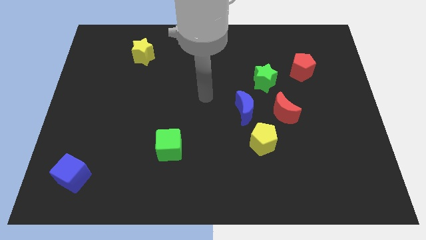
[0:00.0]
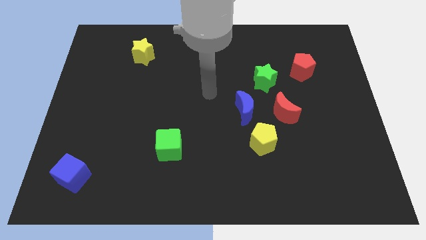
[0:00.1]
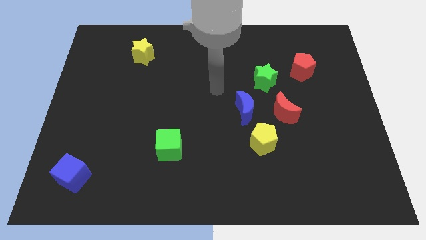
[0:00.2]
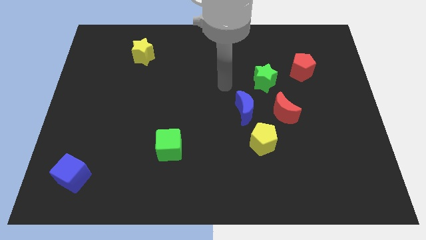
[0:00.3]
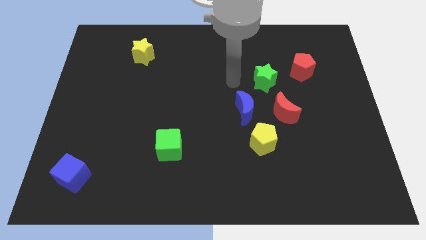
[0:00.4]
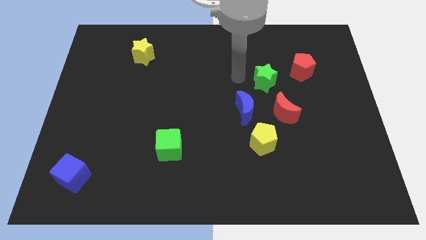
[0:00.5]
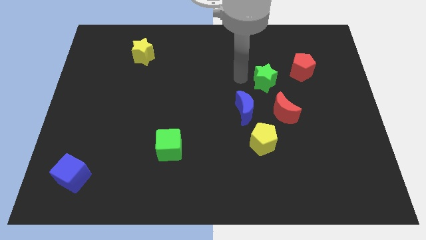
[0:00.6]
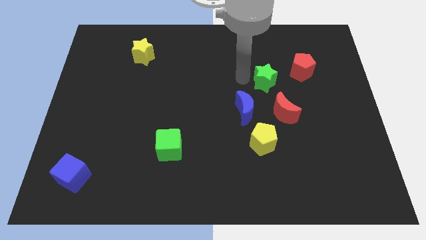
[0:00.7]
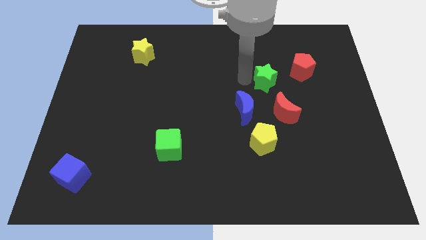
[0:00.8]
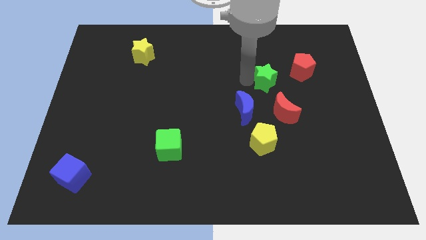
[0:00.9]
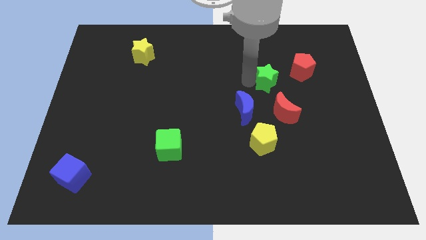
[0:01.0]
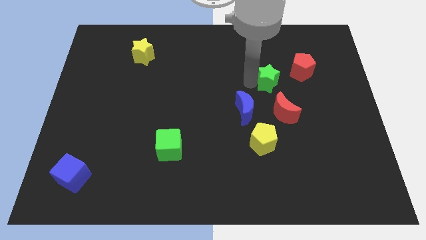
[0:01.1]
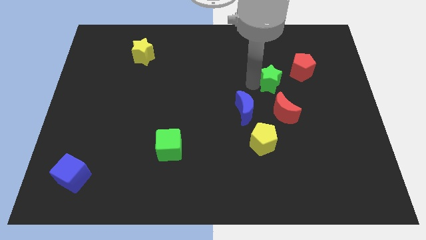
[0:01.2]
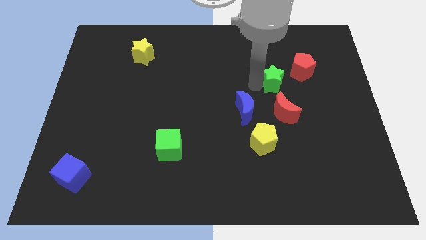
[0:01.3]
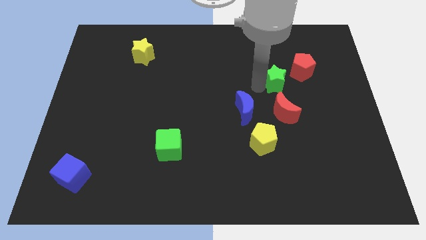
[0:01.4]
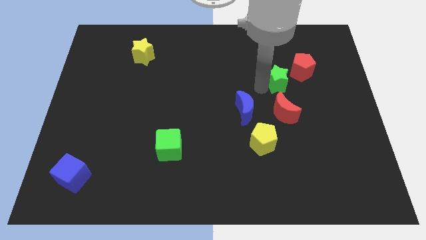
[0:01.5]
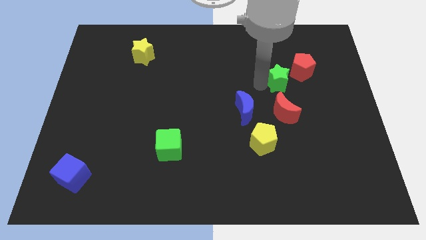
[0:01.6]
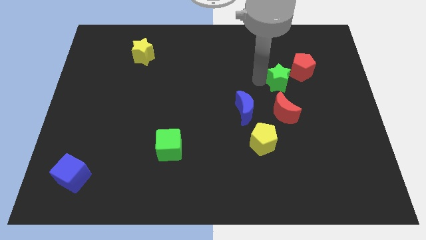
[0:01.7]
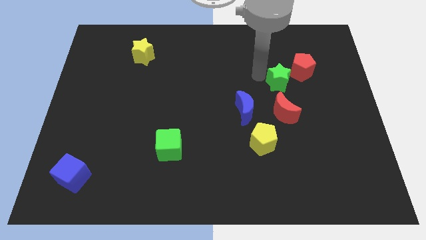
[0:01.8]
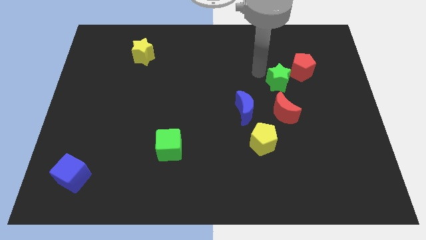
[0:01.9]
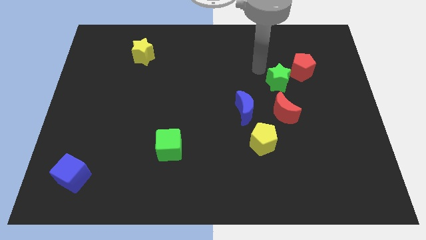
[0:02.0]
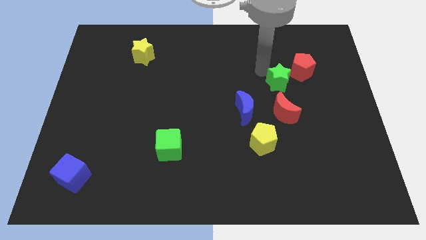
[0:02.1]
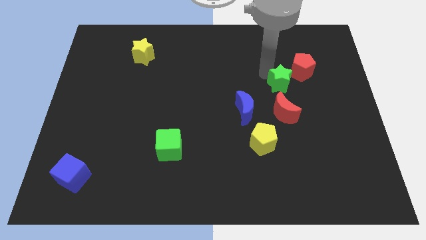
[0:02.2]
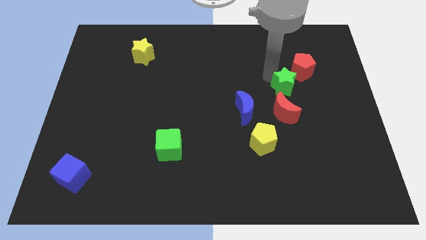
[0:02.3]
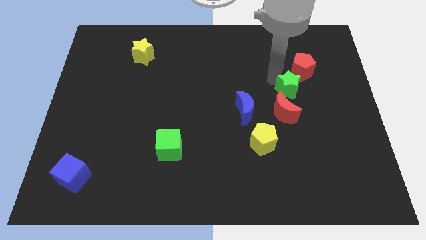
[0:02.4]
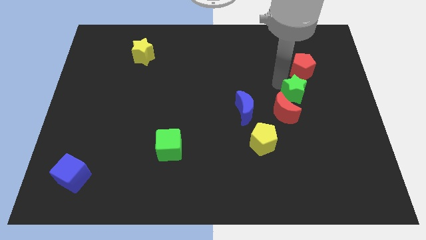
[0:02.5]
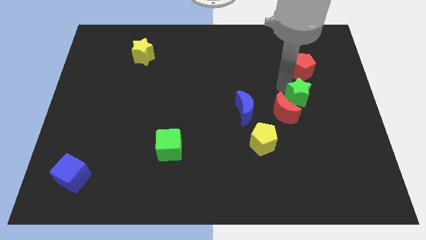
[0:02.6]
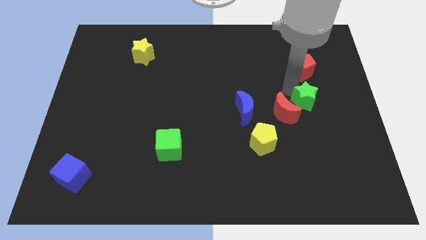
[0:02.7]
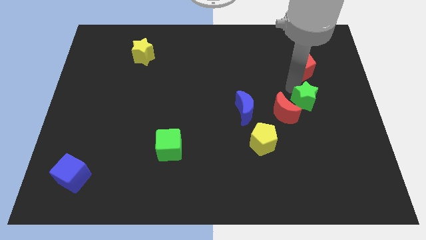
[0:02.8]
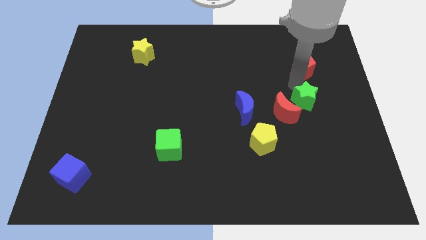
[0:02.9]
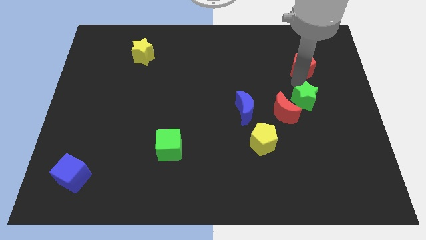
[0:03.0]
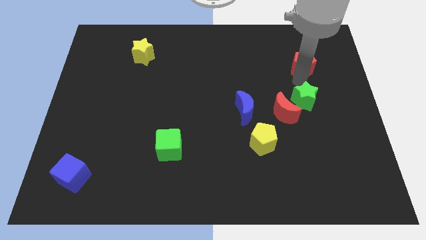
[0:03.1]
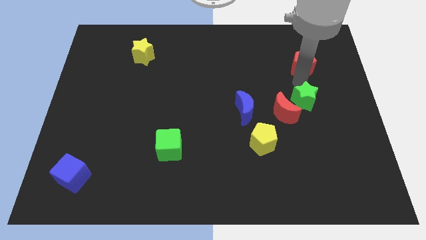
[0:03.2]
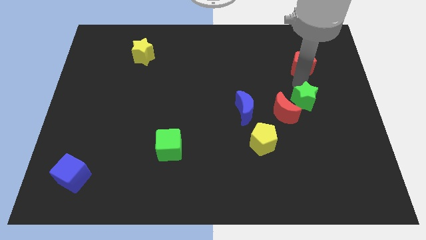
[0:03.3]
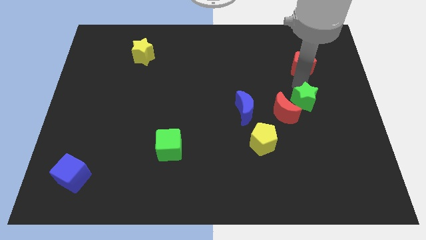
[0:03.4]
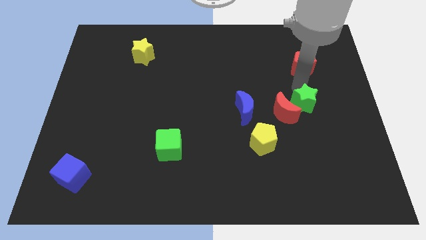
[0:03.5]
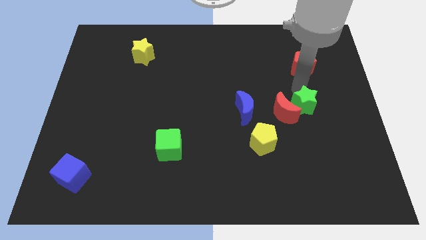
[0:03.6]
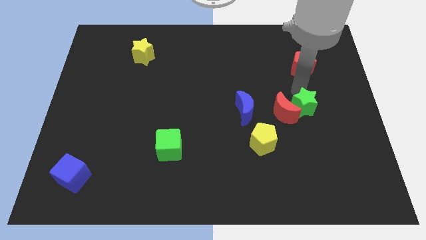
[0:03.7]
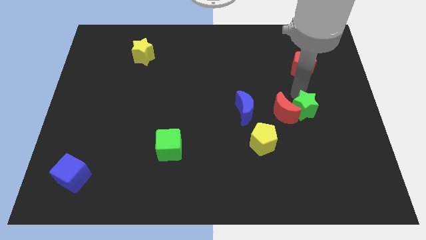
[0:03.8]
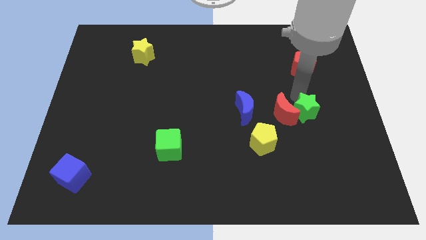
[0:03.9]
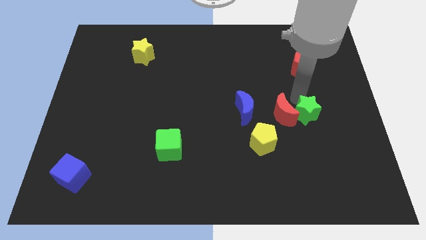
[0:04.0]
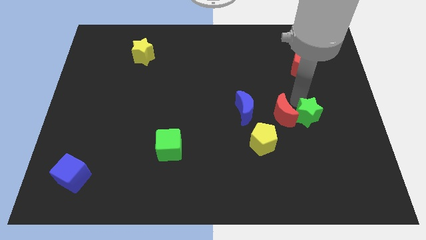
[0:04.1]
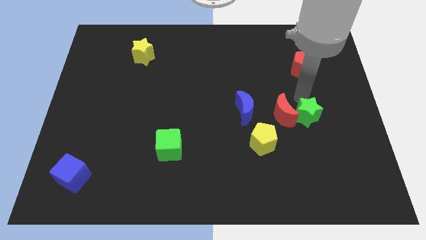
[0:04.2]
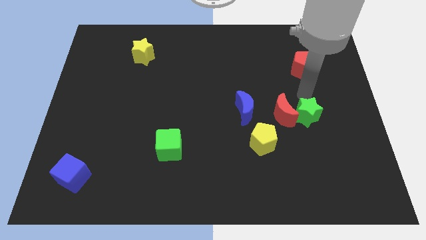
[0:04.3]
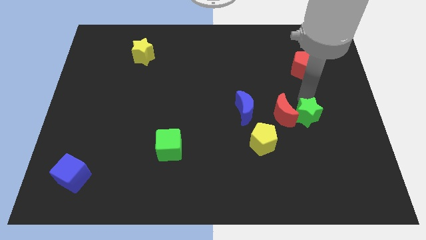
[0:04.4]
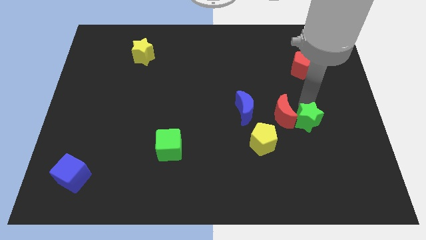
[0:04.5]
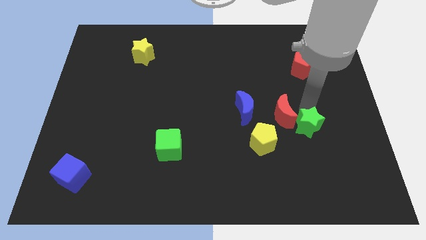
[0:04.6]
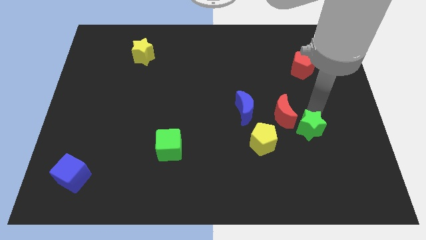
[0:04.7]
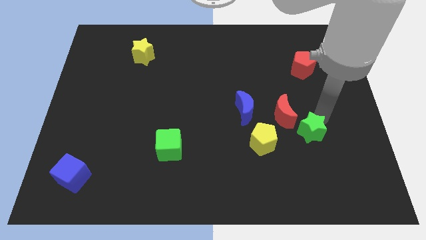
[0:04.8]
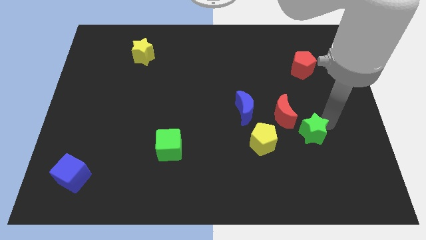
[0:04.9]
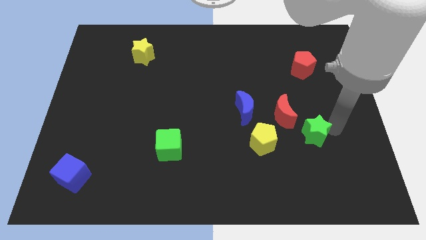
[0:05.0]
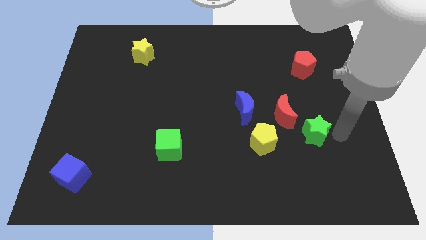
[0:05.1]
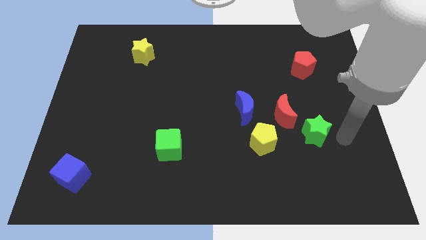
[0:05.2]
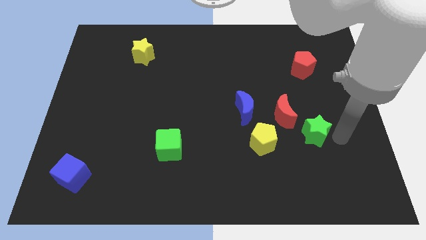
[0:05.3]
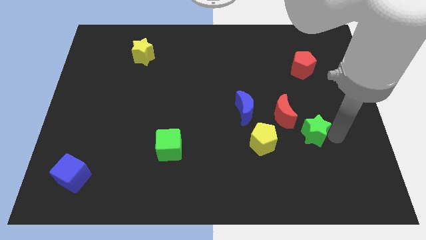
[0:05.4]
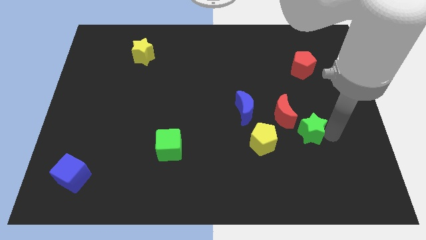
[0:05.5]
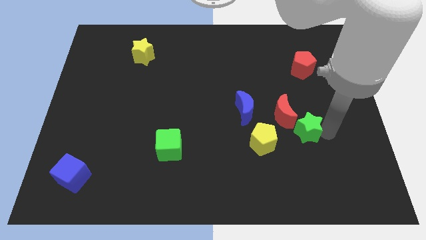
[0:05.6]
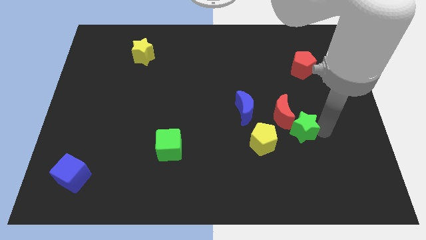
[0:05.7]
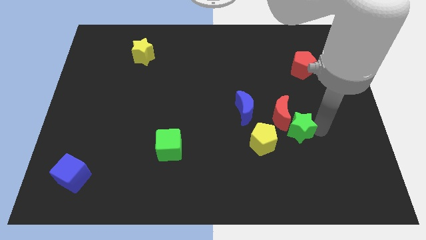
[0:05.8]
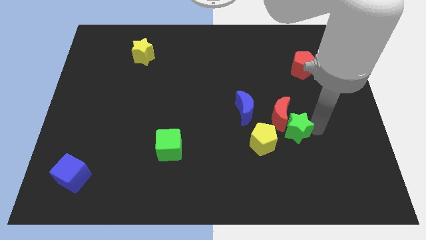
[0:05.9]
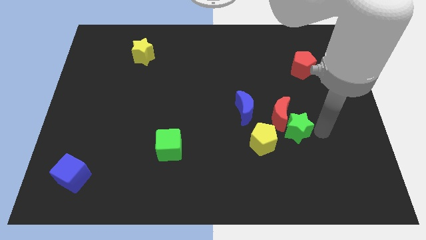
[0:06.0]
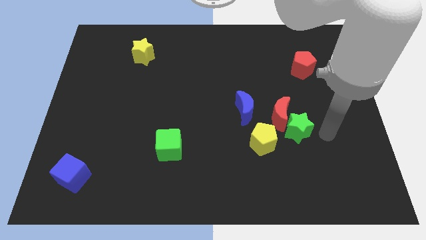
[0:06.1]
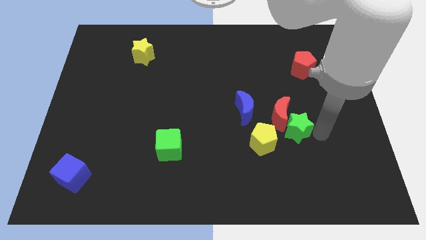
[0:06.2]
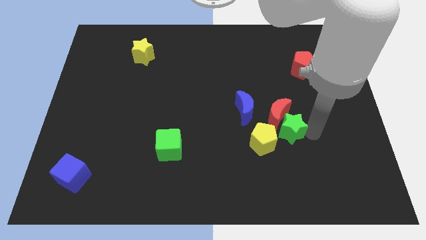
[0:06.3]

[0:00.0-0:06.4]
put the green star diagonally down and to the right of the blue moon
